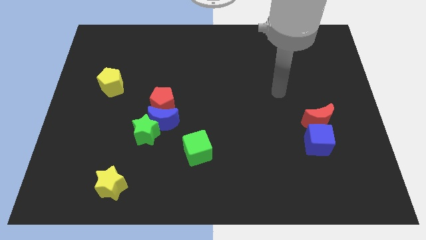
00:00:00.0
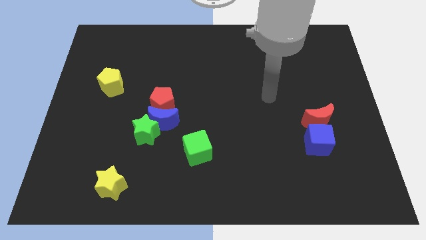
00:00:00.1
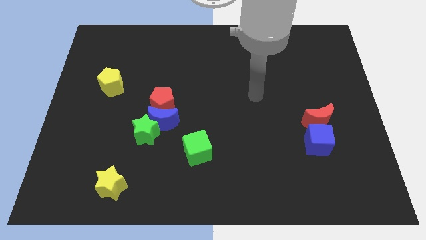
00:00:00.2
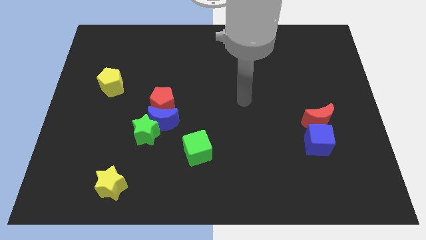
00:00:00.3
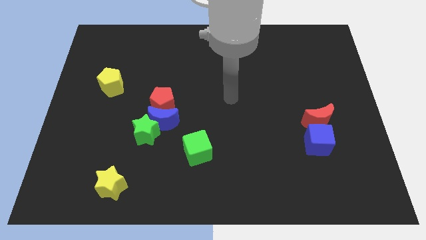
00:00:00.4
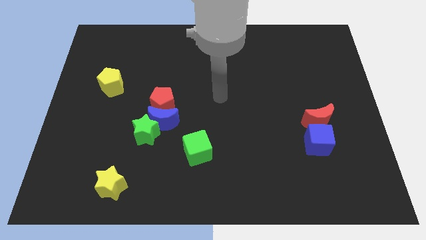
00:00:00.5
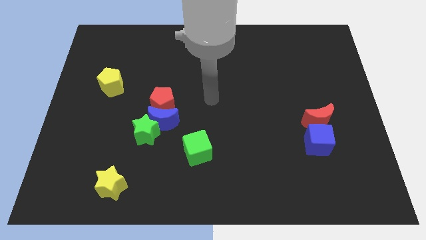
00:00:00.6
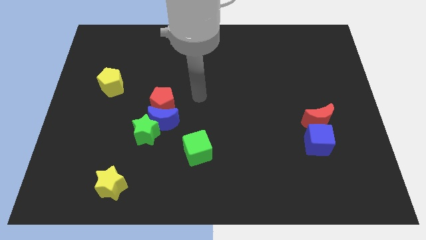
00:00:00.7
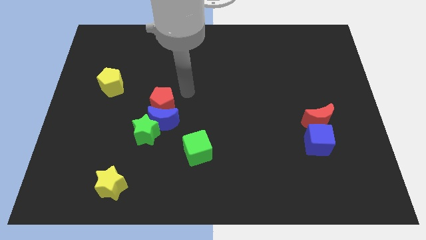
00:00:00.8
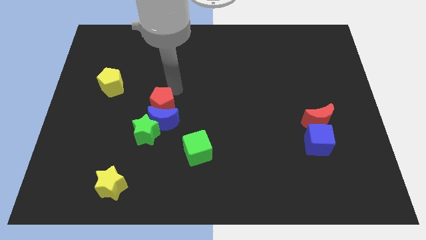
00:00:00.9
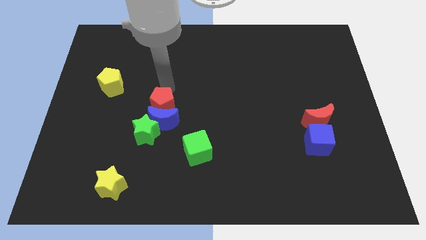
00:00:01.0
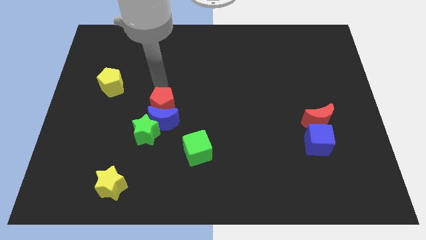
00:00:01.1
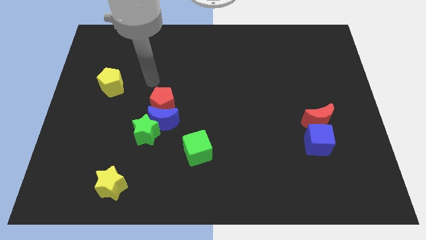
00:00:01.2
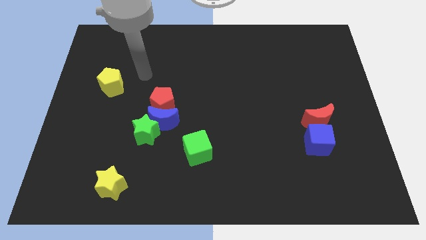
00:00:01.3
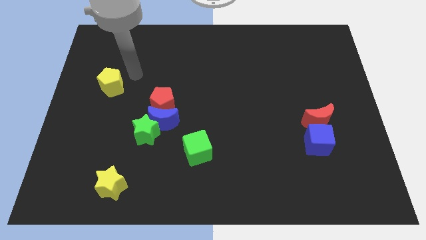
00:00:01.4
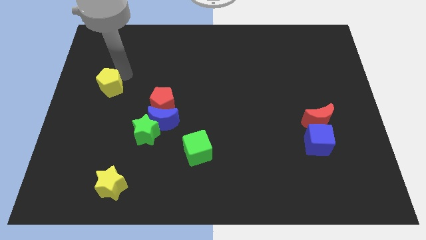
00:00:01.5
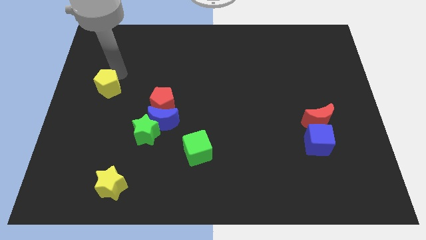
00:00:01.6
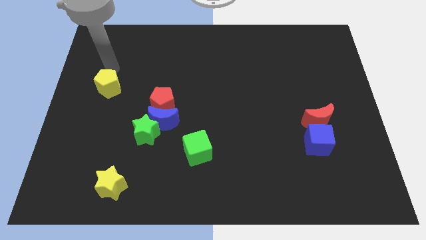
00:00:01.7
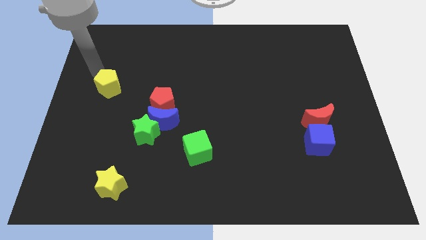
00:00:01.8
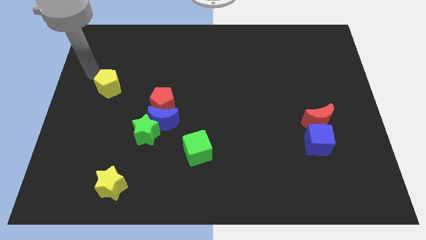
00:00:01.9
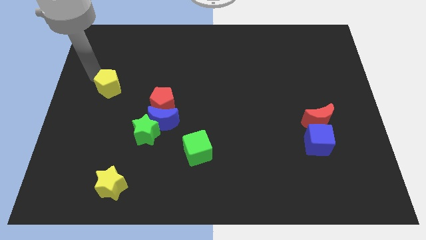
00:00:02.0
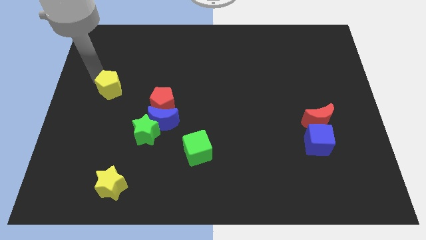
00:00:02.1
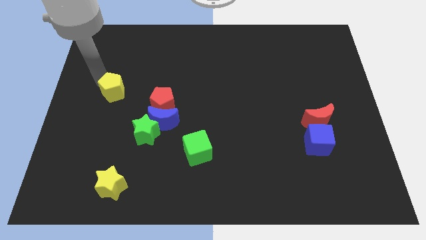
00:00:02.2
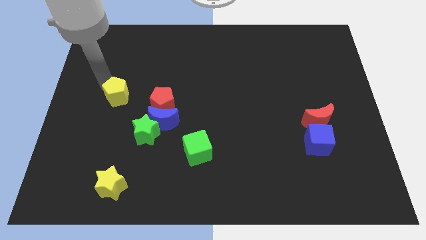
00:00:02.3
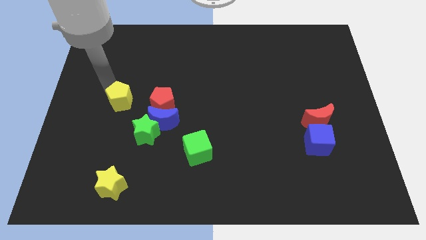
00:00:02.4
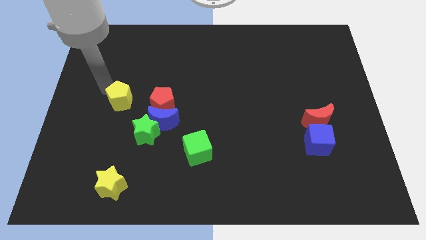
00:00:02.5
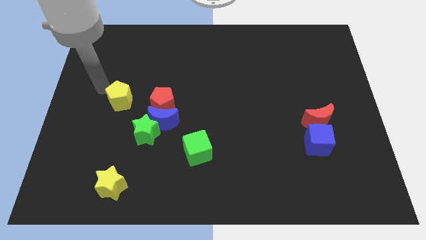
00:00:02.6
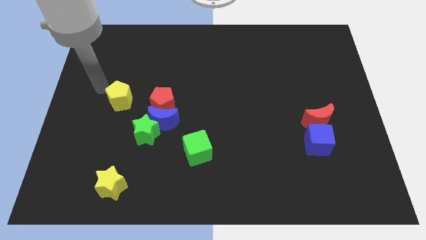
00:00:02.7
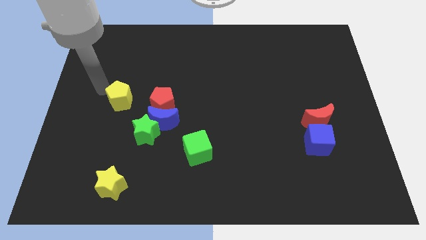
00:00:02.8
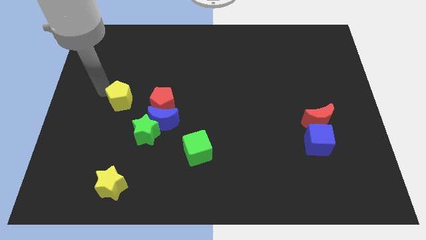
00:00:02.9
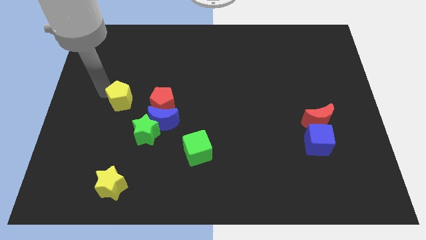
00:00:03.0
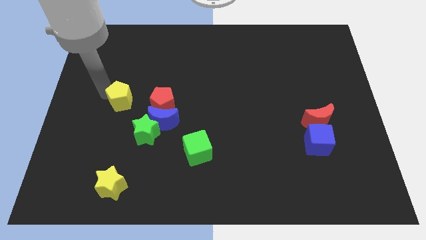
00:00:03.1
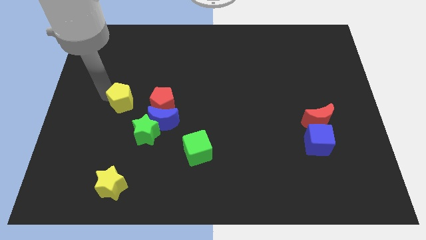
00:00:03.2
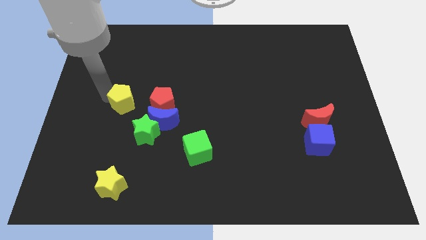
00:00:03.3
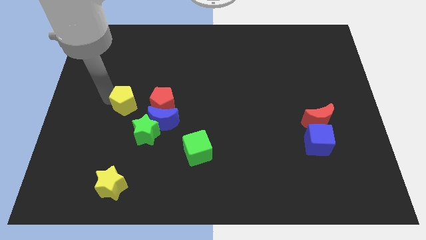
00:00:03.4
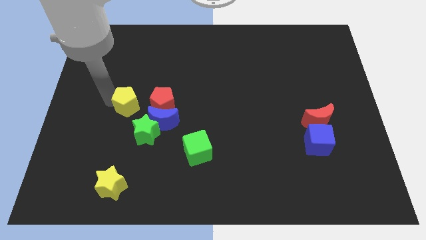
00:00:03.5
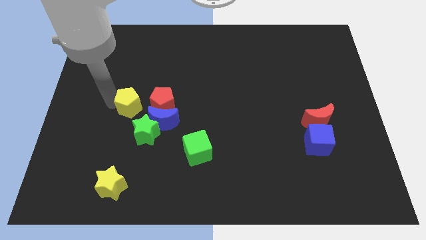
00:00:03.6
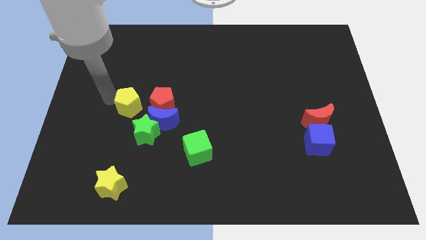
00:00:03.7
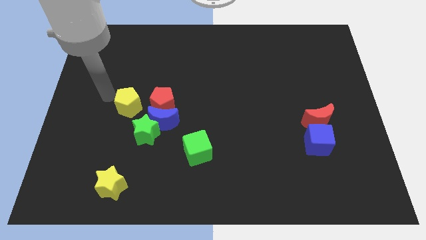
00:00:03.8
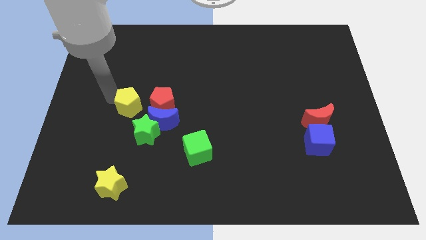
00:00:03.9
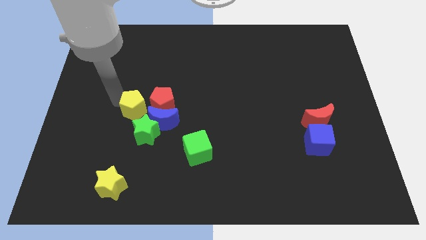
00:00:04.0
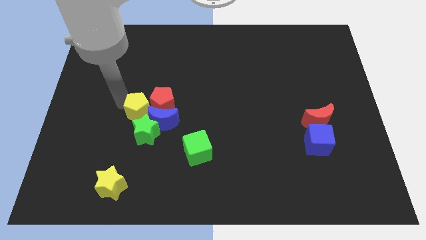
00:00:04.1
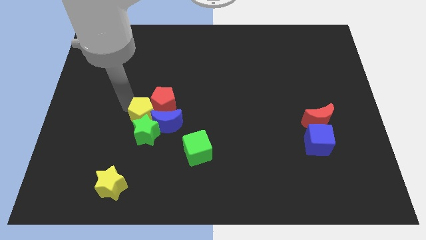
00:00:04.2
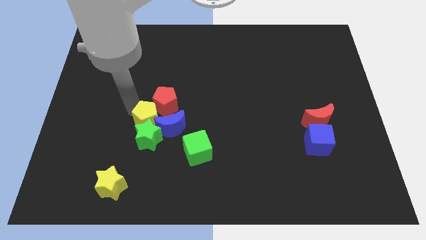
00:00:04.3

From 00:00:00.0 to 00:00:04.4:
push the yellow pentagon next to the blue moon

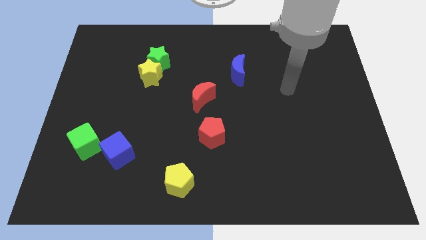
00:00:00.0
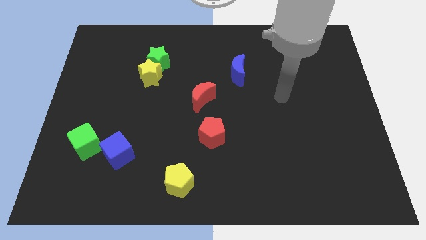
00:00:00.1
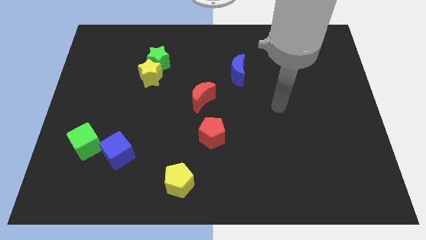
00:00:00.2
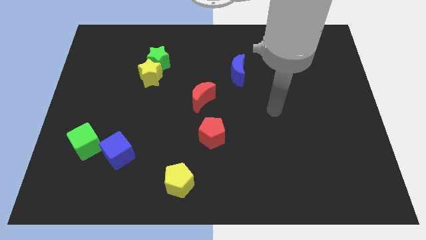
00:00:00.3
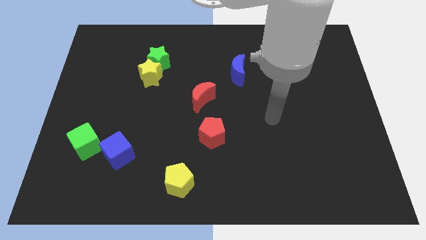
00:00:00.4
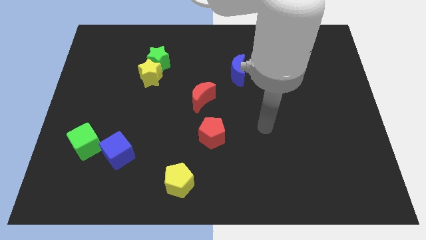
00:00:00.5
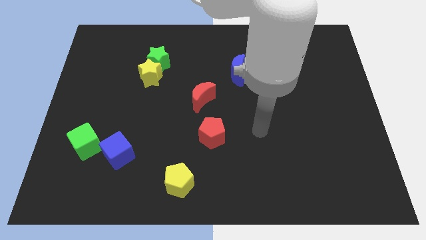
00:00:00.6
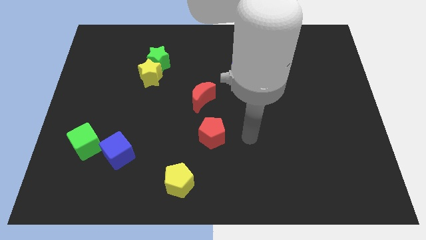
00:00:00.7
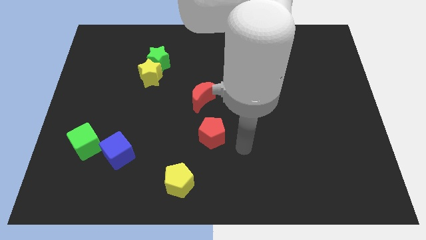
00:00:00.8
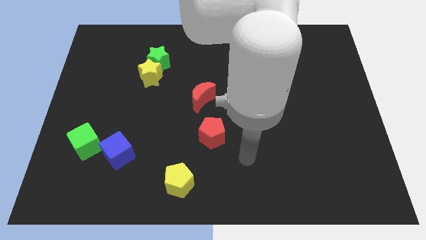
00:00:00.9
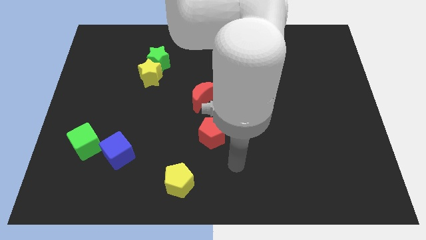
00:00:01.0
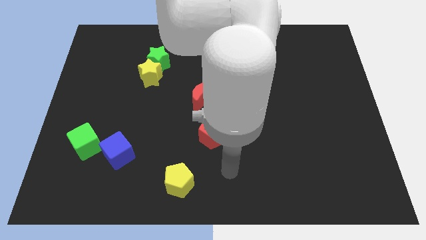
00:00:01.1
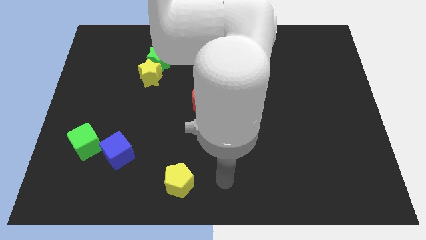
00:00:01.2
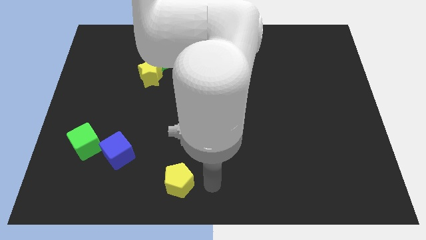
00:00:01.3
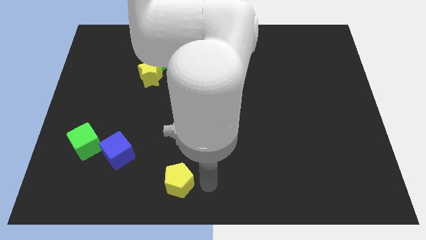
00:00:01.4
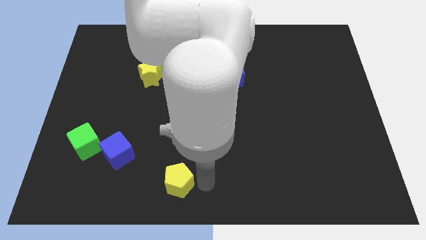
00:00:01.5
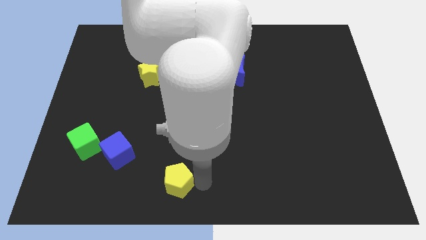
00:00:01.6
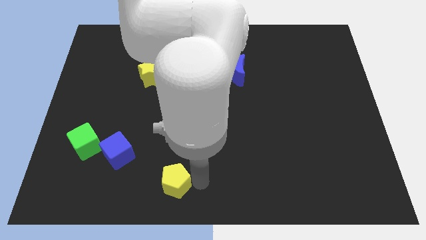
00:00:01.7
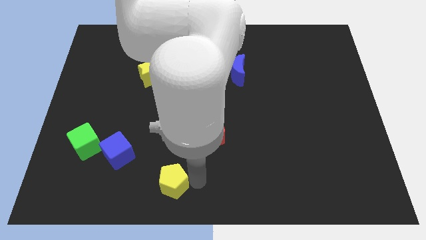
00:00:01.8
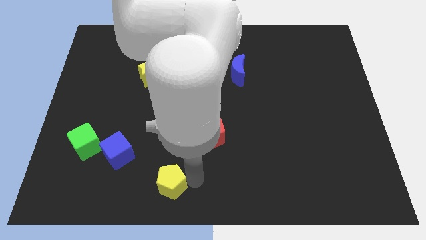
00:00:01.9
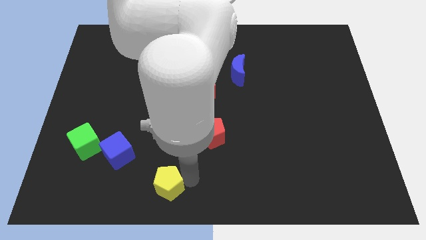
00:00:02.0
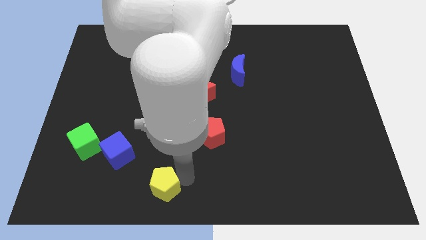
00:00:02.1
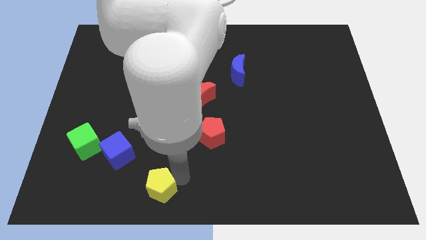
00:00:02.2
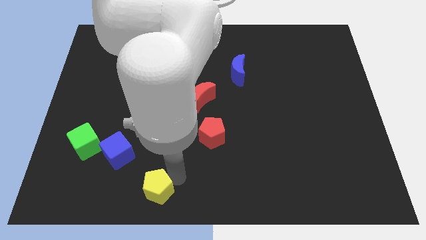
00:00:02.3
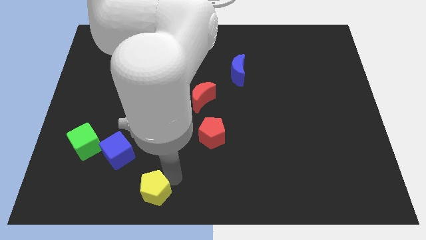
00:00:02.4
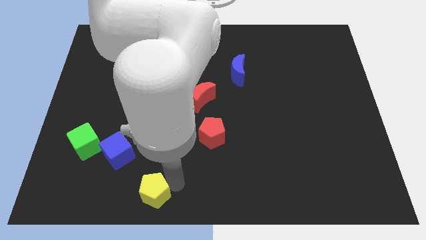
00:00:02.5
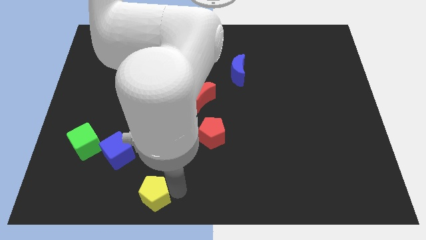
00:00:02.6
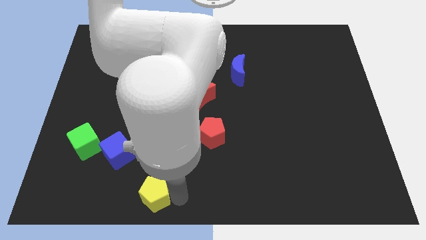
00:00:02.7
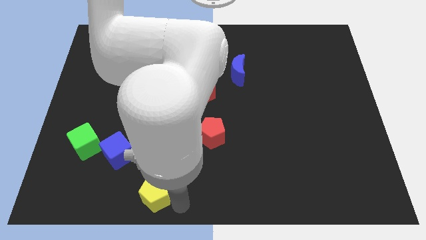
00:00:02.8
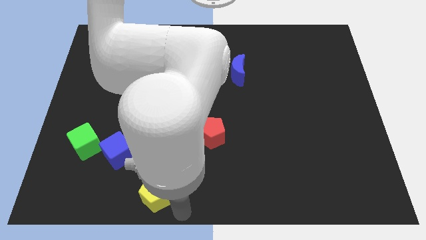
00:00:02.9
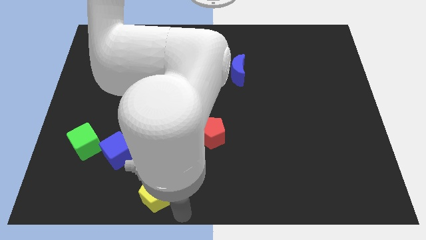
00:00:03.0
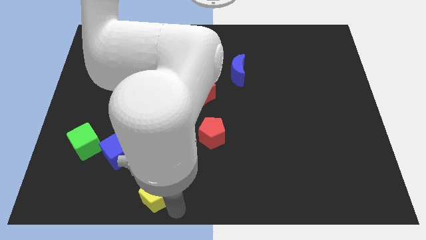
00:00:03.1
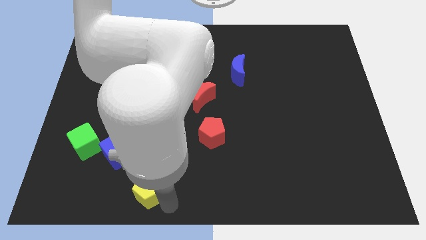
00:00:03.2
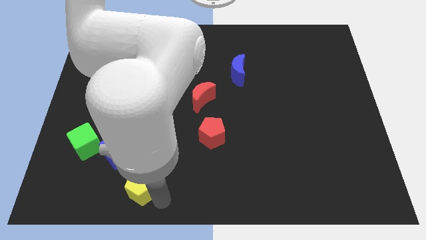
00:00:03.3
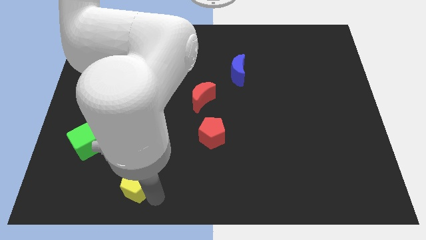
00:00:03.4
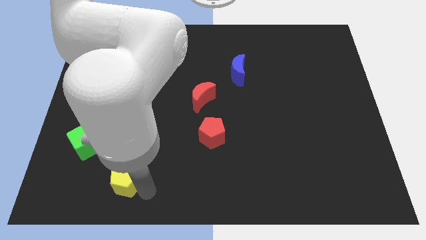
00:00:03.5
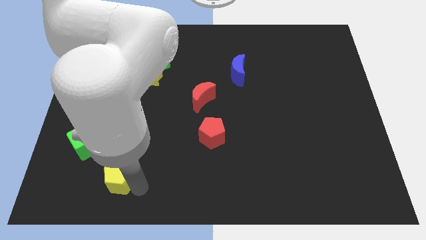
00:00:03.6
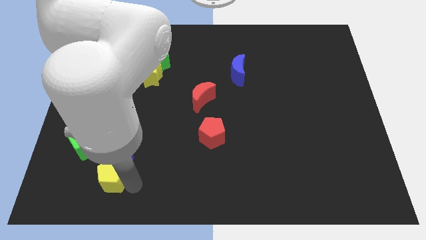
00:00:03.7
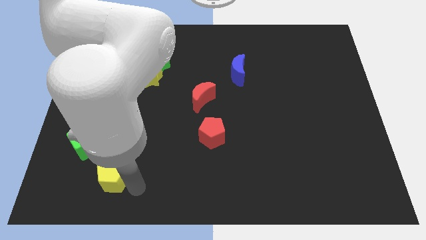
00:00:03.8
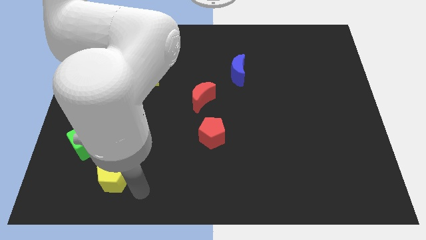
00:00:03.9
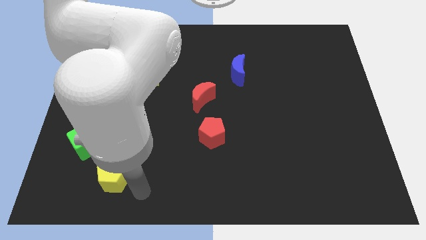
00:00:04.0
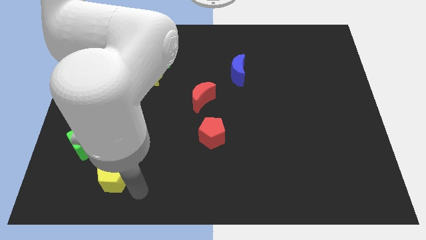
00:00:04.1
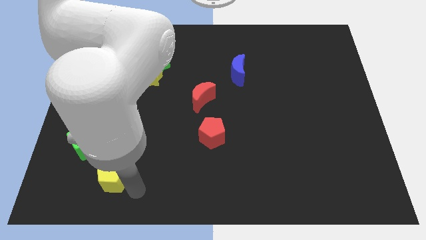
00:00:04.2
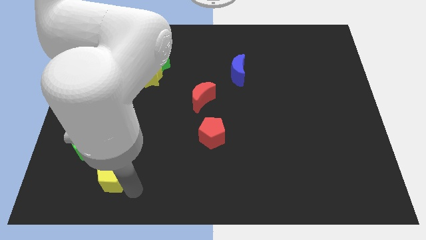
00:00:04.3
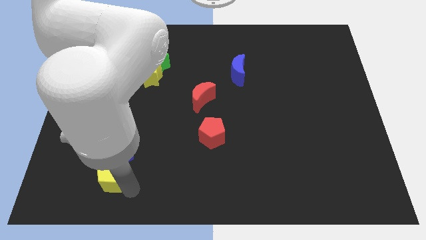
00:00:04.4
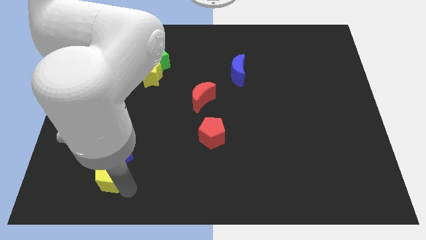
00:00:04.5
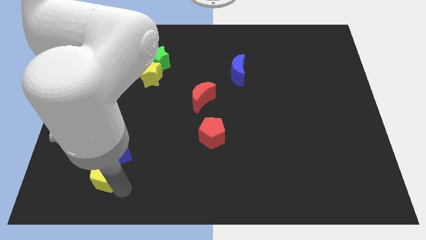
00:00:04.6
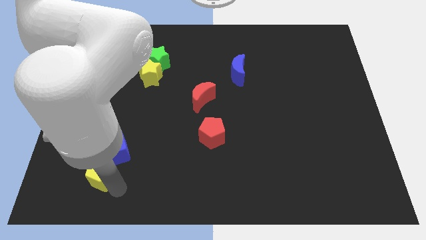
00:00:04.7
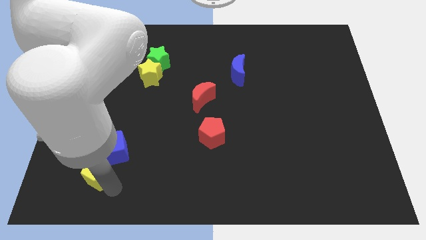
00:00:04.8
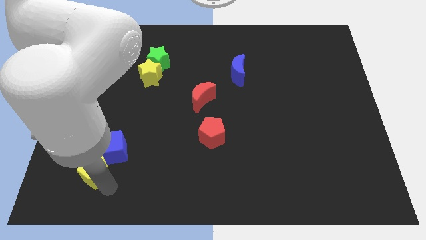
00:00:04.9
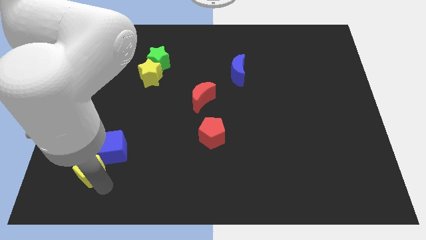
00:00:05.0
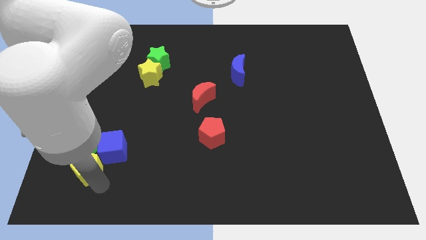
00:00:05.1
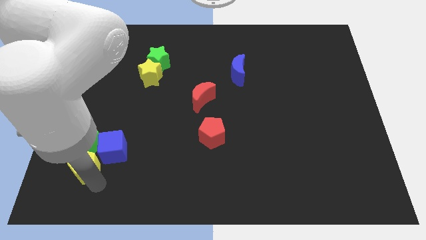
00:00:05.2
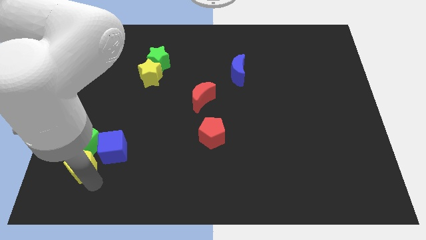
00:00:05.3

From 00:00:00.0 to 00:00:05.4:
push the yellow pentagon towards the green cube
